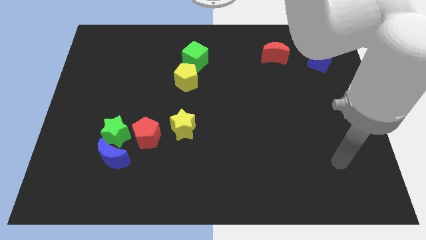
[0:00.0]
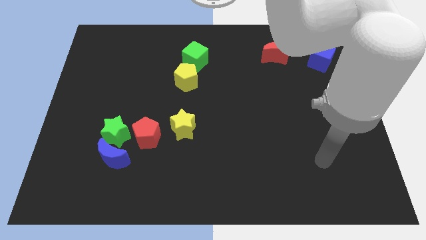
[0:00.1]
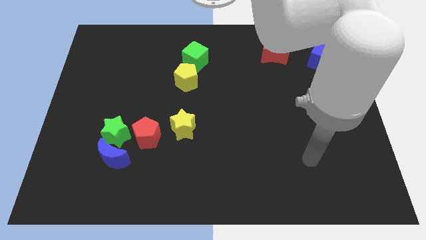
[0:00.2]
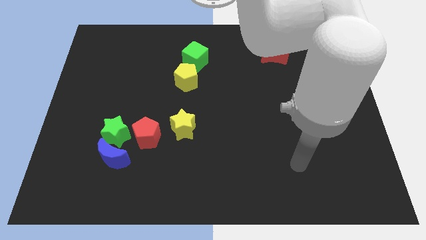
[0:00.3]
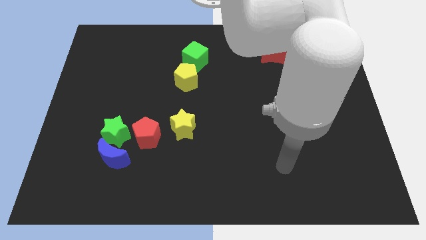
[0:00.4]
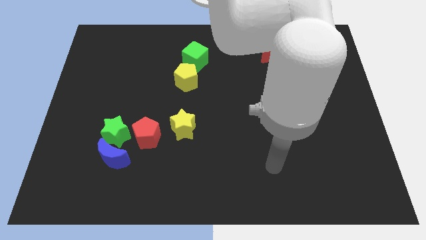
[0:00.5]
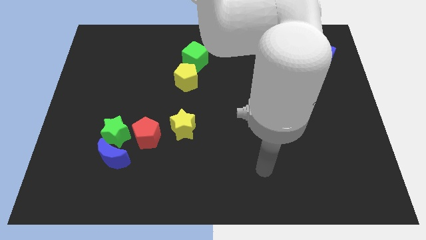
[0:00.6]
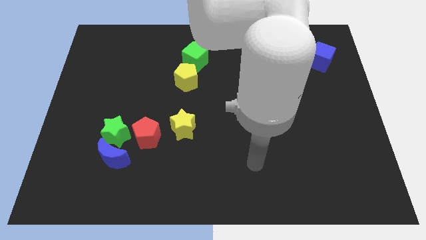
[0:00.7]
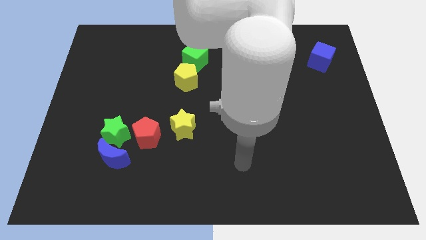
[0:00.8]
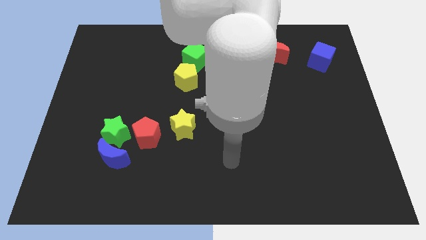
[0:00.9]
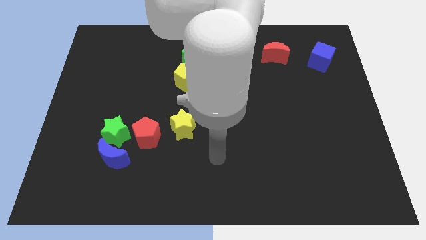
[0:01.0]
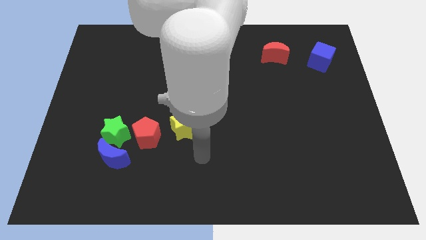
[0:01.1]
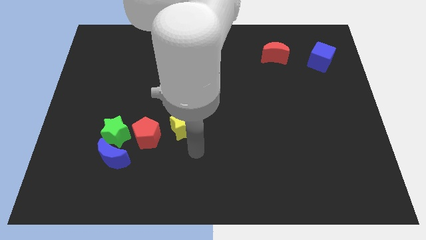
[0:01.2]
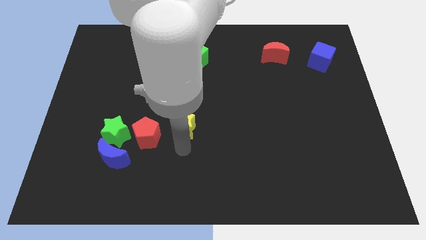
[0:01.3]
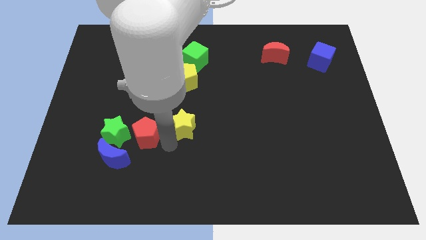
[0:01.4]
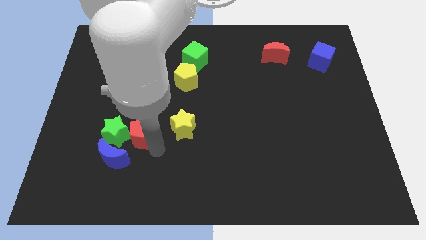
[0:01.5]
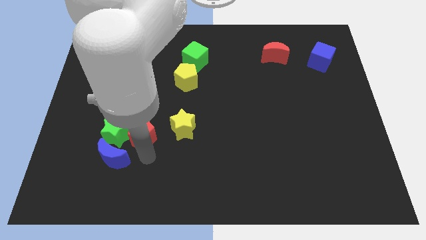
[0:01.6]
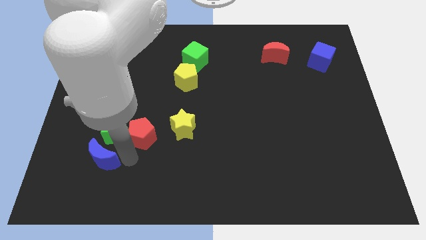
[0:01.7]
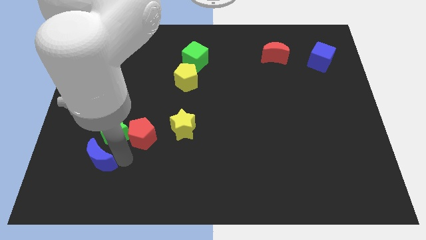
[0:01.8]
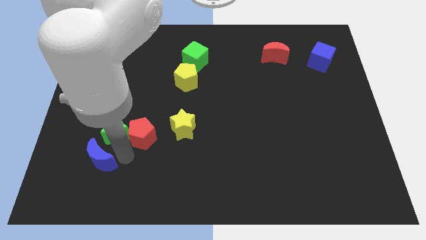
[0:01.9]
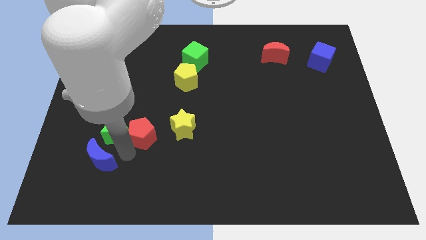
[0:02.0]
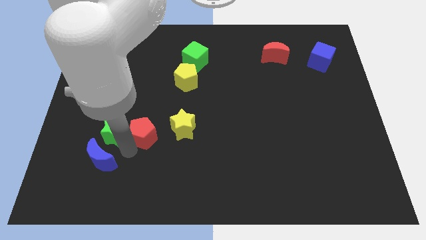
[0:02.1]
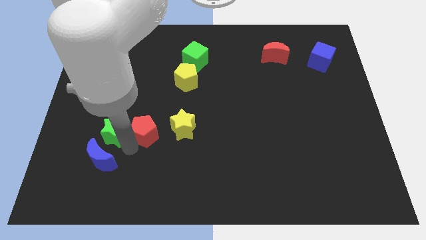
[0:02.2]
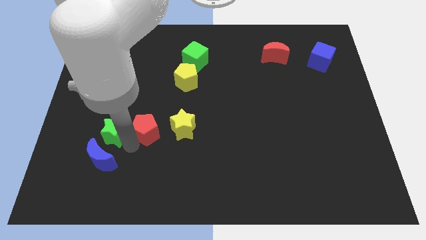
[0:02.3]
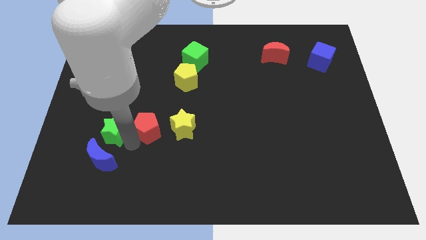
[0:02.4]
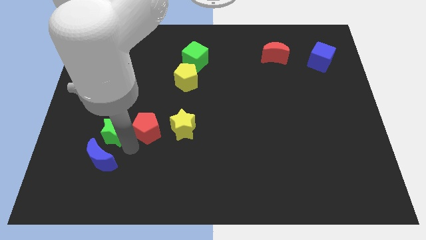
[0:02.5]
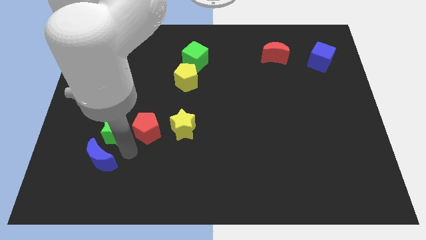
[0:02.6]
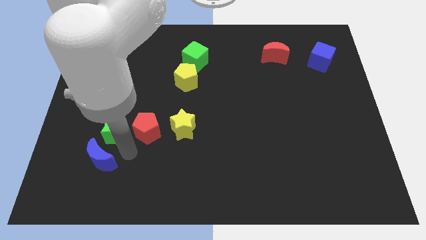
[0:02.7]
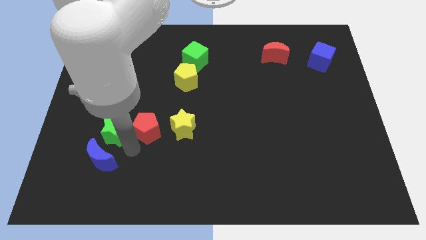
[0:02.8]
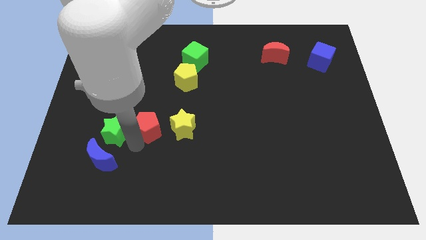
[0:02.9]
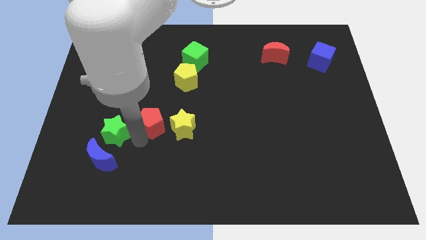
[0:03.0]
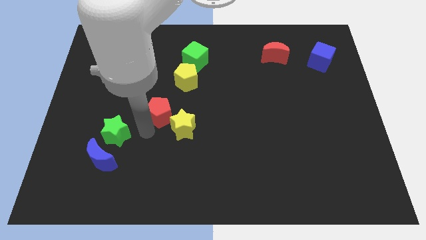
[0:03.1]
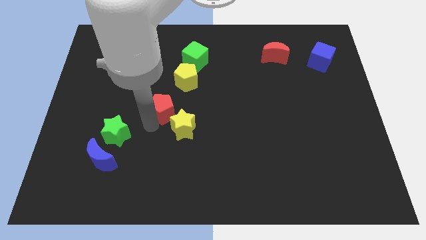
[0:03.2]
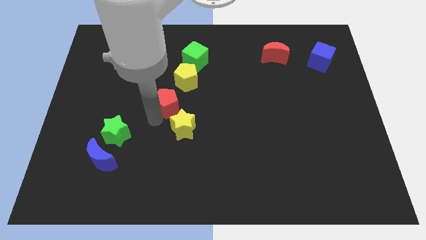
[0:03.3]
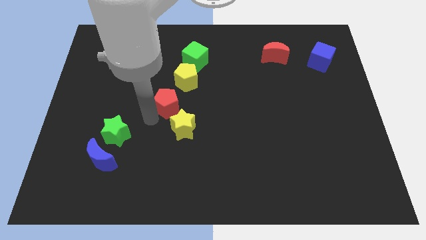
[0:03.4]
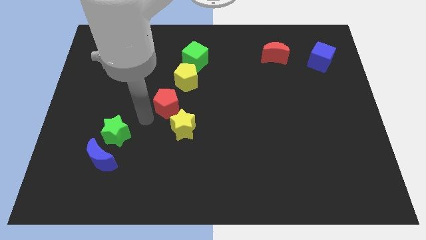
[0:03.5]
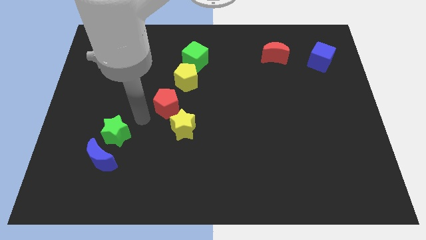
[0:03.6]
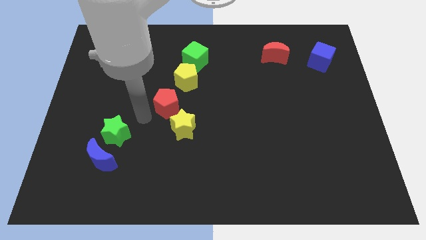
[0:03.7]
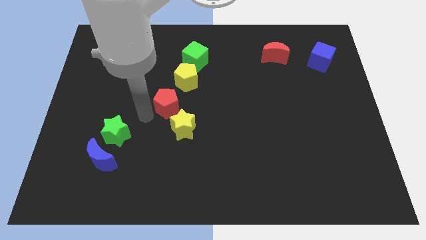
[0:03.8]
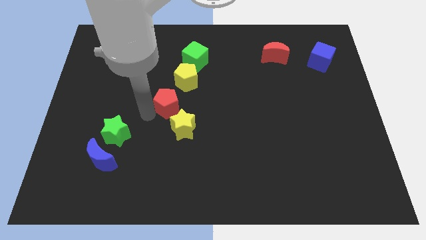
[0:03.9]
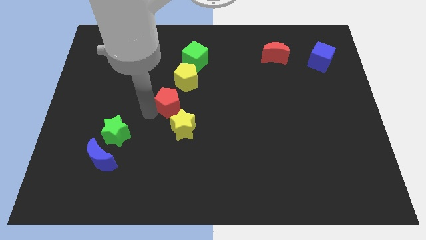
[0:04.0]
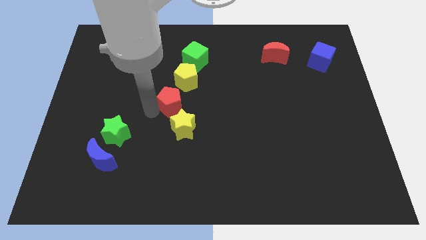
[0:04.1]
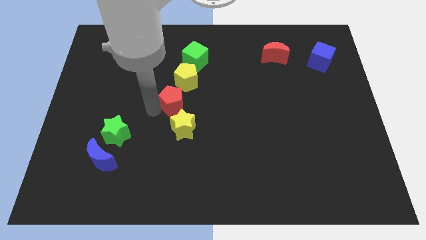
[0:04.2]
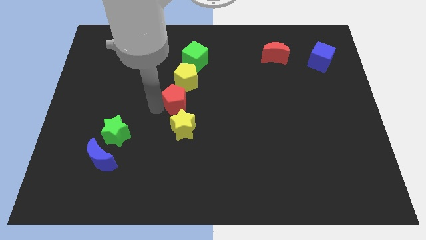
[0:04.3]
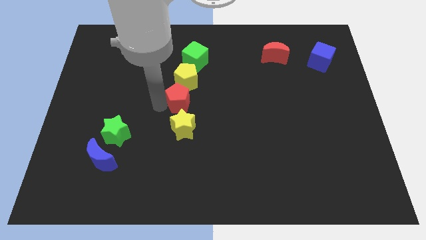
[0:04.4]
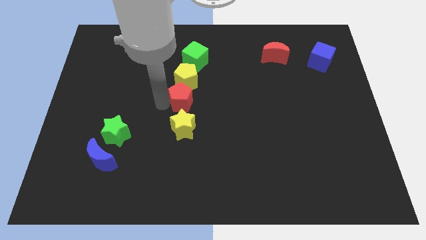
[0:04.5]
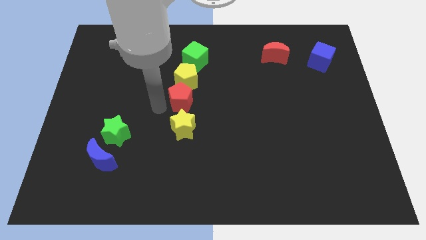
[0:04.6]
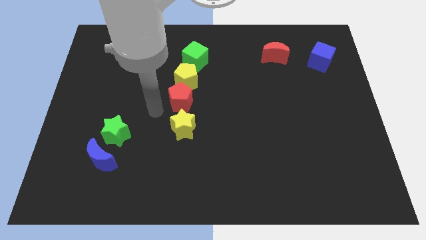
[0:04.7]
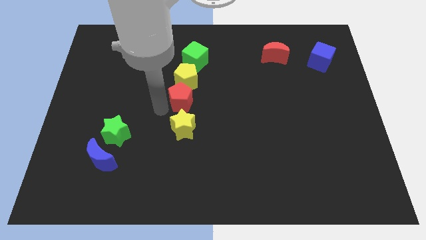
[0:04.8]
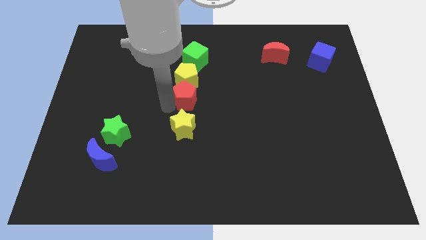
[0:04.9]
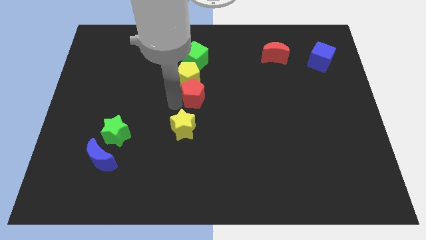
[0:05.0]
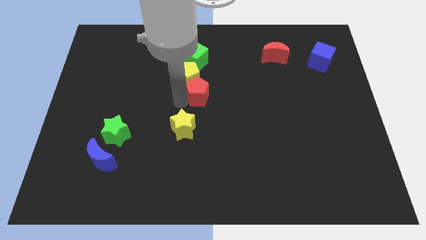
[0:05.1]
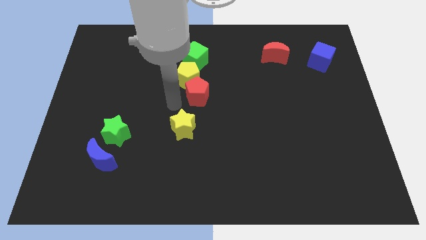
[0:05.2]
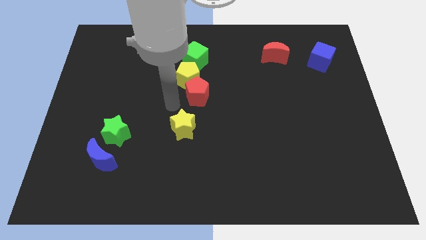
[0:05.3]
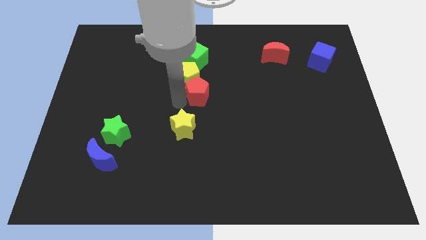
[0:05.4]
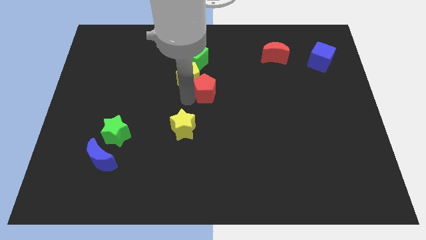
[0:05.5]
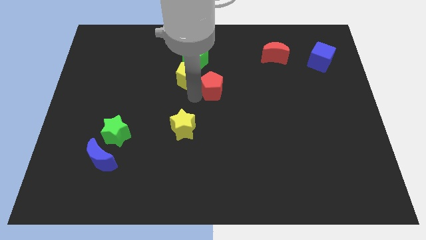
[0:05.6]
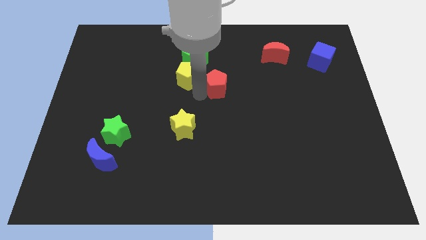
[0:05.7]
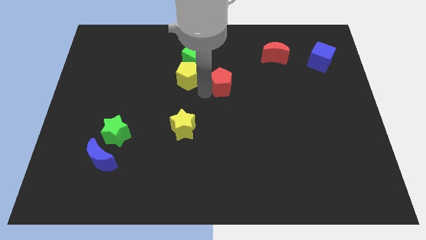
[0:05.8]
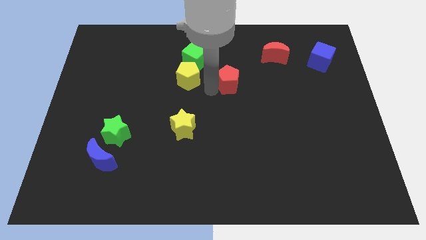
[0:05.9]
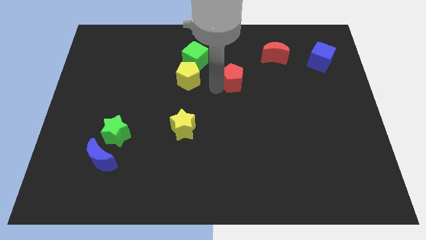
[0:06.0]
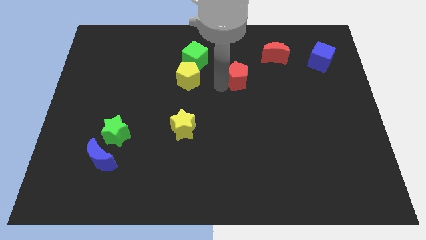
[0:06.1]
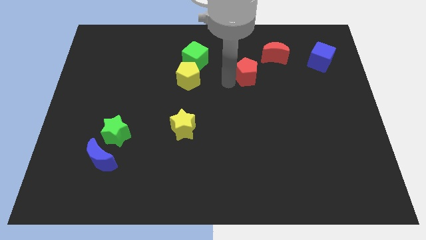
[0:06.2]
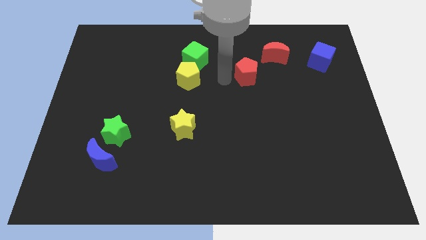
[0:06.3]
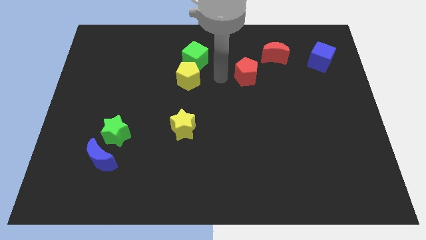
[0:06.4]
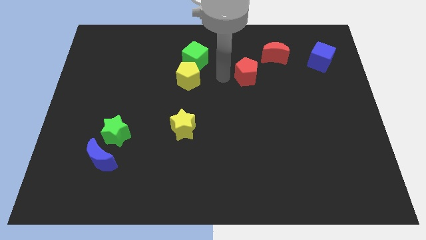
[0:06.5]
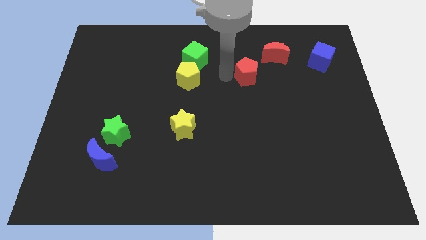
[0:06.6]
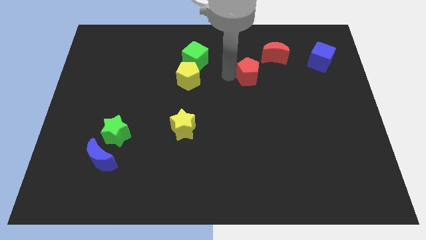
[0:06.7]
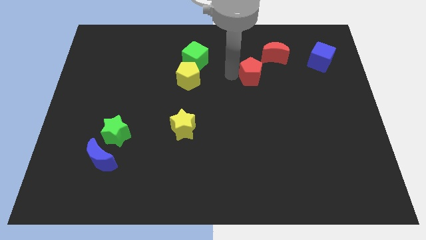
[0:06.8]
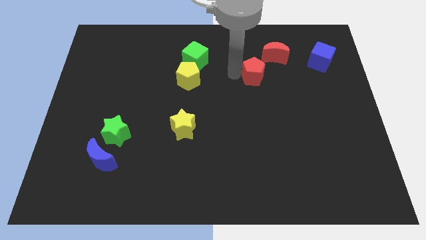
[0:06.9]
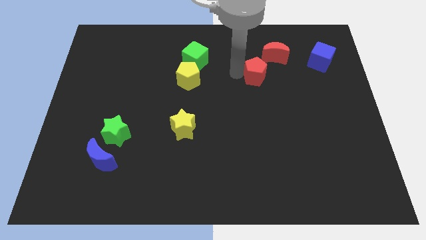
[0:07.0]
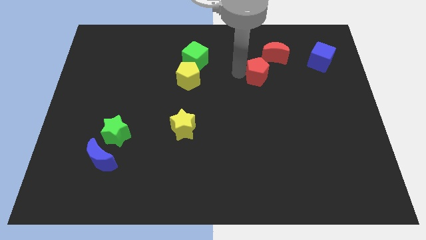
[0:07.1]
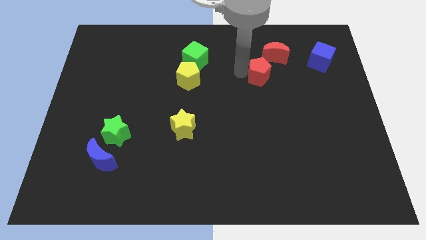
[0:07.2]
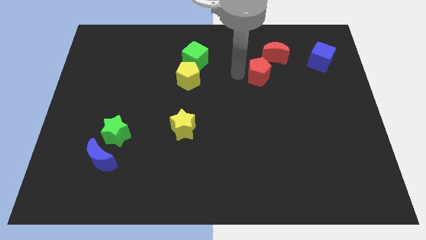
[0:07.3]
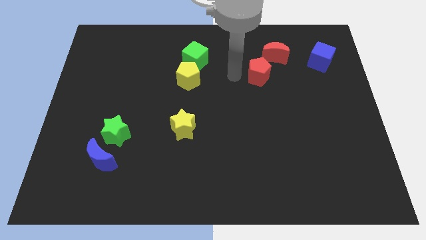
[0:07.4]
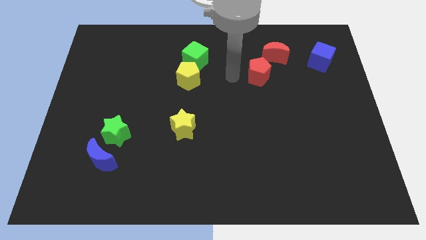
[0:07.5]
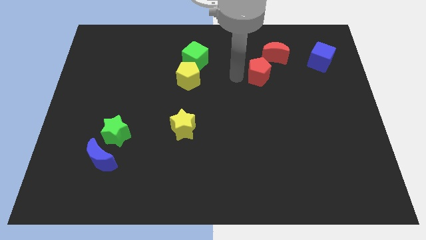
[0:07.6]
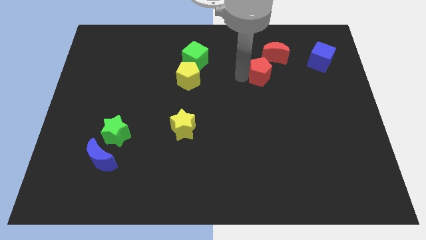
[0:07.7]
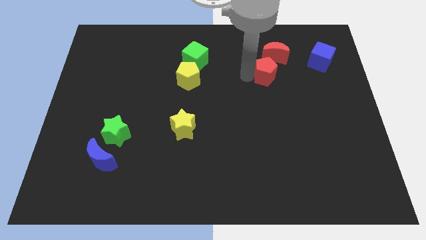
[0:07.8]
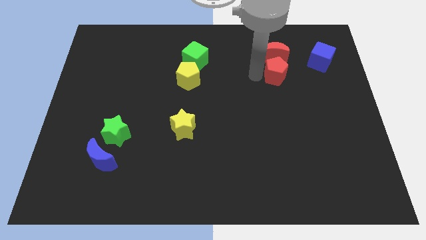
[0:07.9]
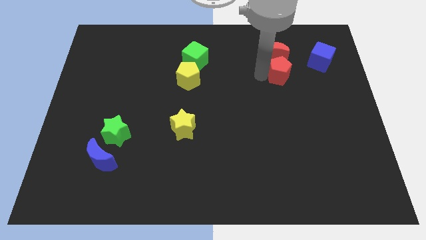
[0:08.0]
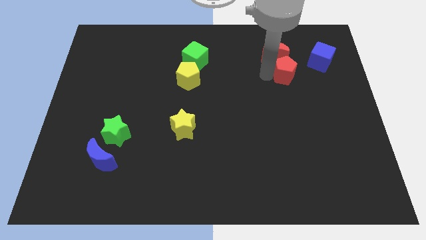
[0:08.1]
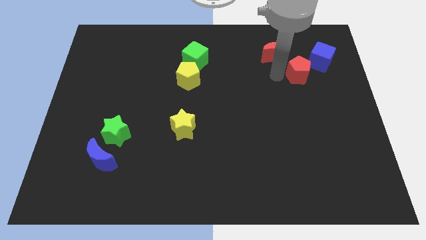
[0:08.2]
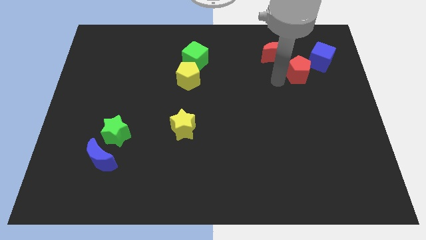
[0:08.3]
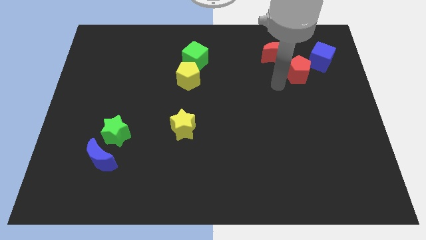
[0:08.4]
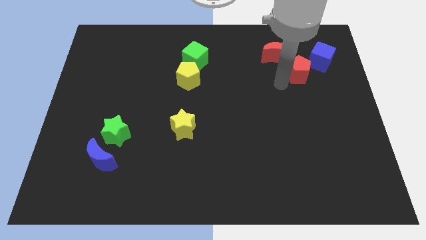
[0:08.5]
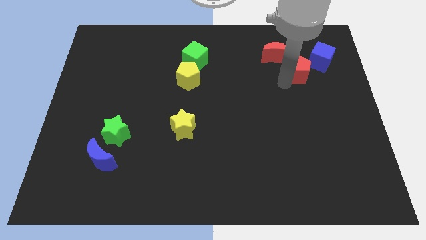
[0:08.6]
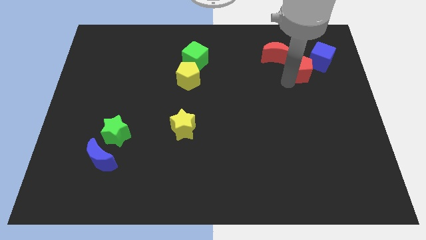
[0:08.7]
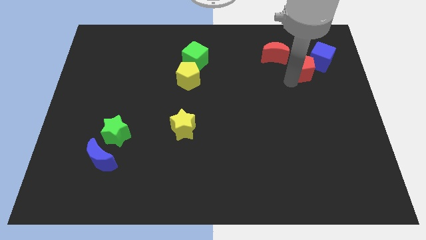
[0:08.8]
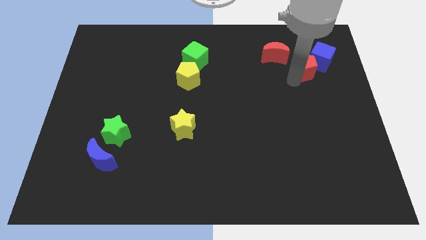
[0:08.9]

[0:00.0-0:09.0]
slide the red pentagon to the blue cube
